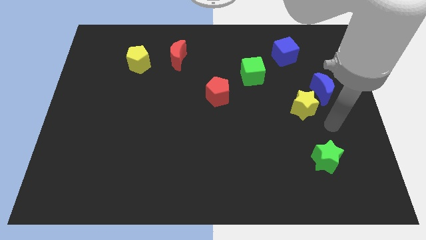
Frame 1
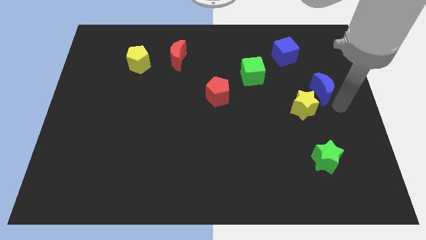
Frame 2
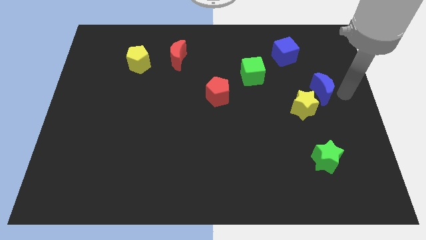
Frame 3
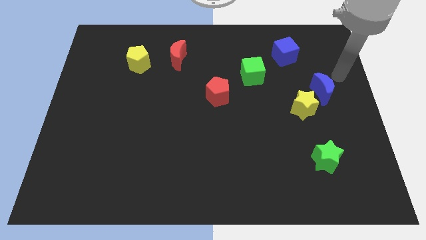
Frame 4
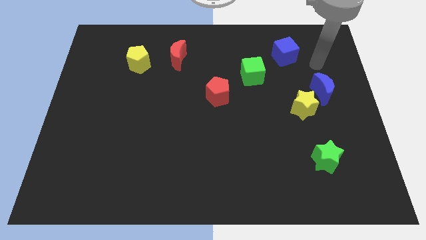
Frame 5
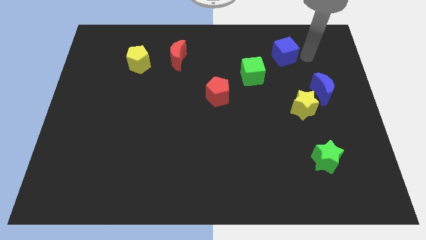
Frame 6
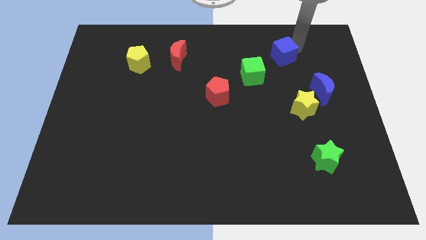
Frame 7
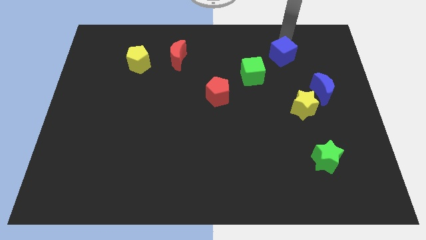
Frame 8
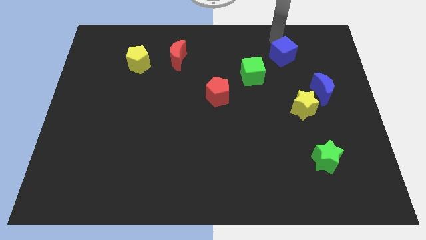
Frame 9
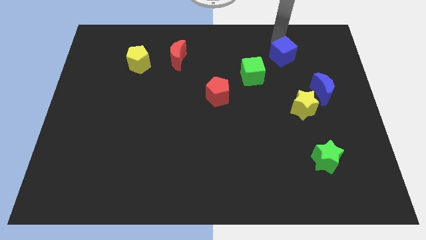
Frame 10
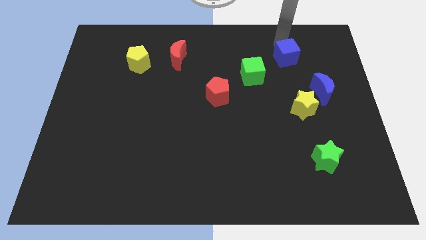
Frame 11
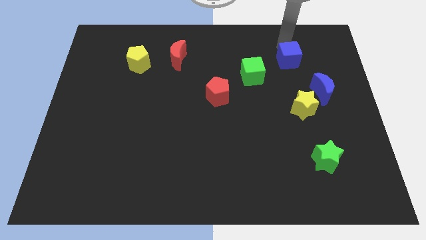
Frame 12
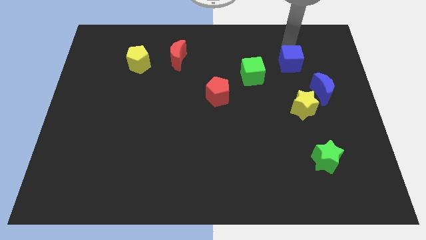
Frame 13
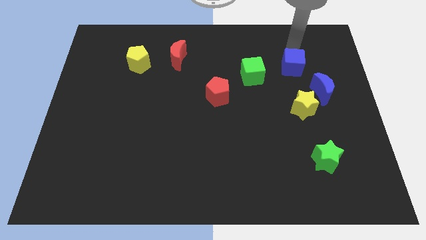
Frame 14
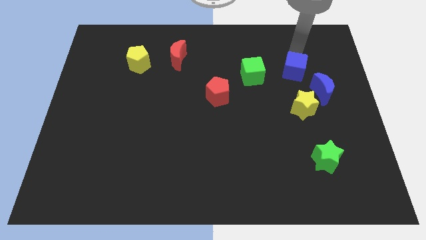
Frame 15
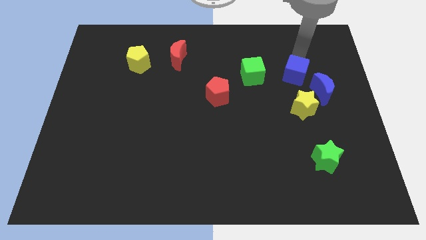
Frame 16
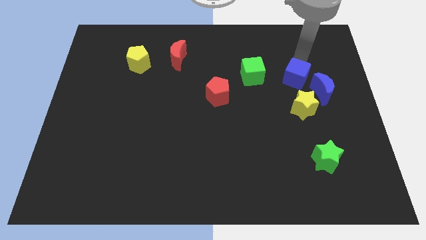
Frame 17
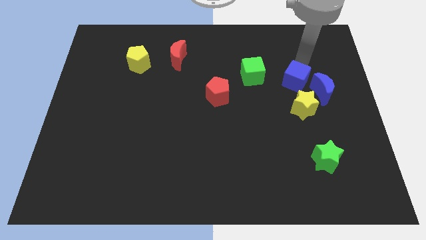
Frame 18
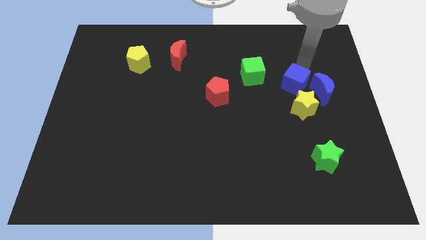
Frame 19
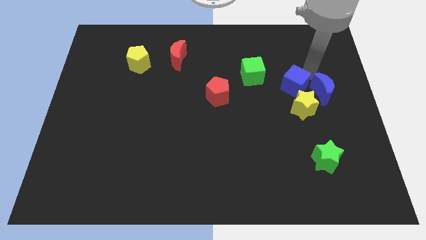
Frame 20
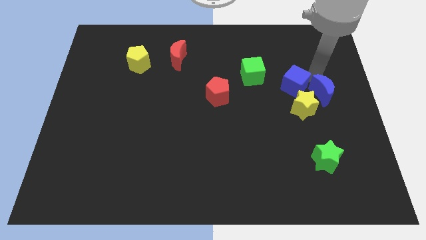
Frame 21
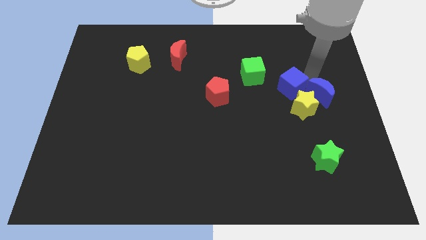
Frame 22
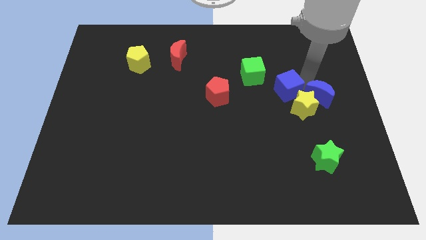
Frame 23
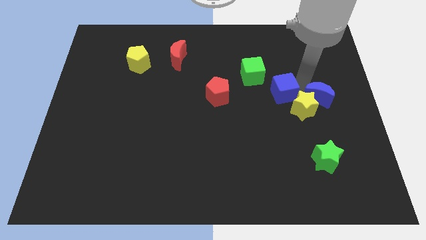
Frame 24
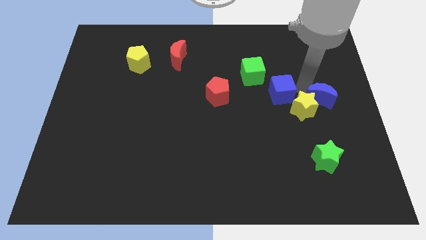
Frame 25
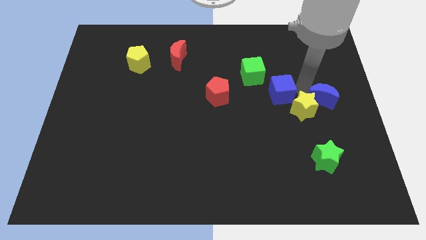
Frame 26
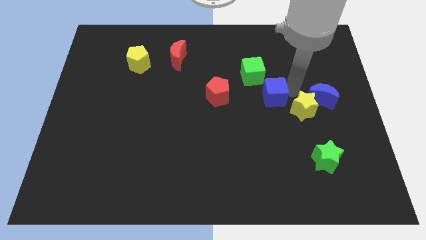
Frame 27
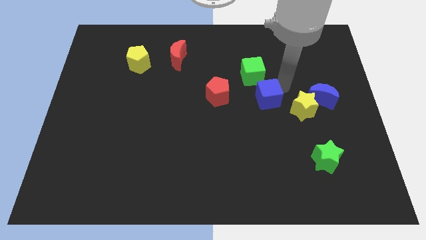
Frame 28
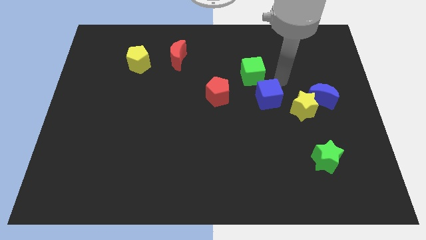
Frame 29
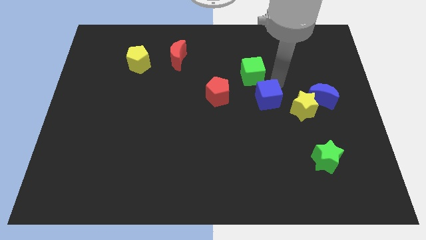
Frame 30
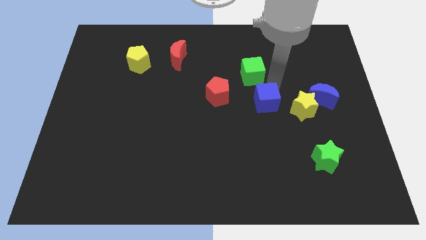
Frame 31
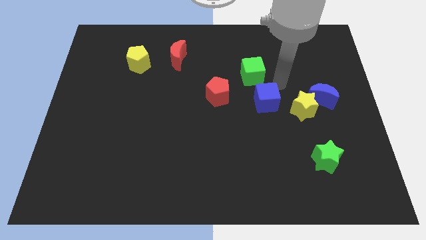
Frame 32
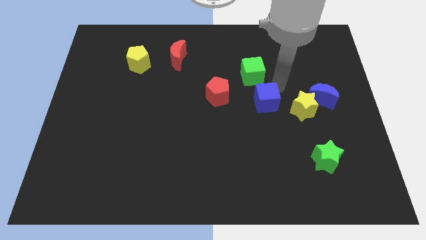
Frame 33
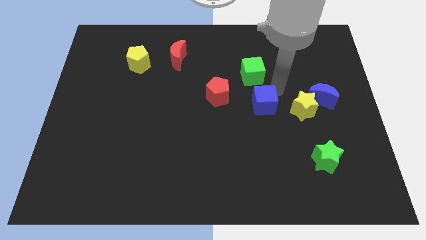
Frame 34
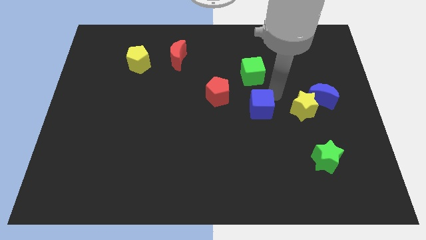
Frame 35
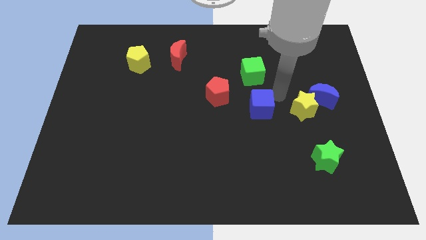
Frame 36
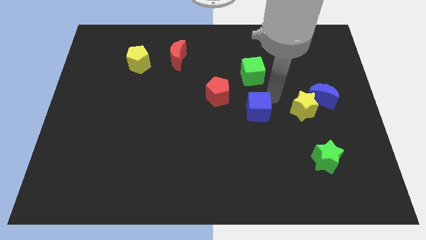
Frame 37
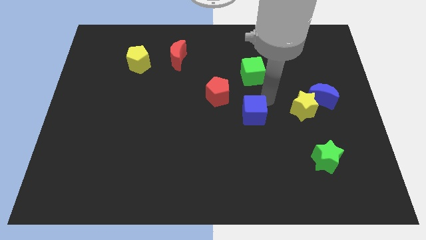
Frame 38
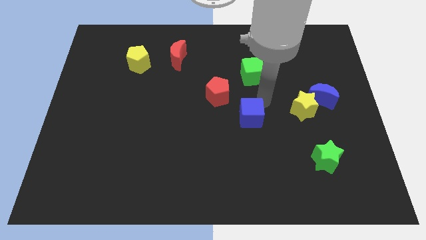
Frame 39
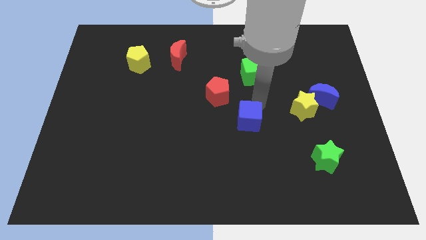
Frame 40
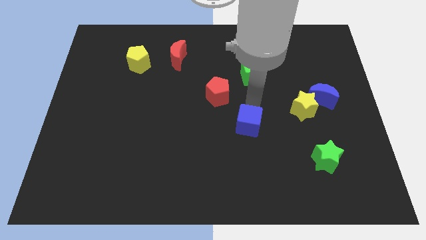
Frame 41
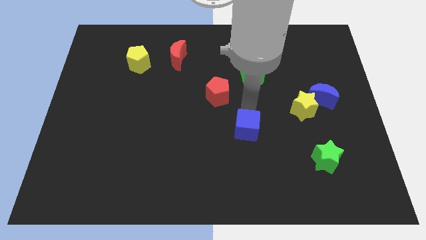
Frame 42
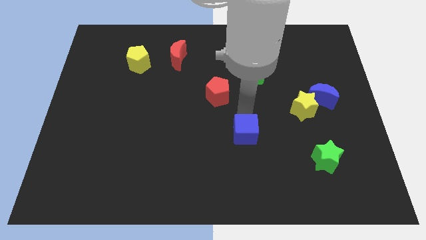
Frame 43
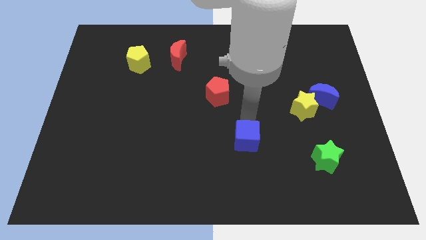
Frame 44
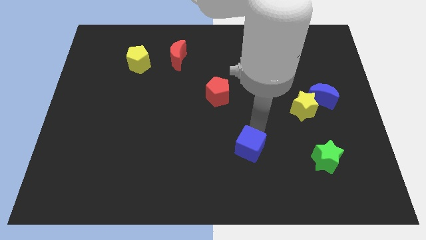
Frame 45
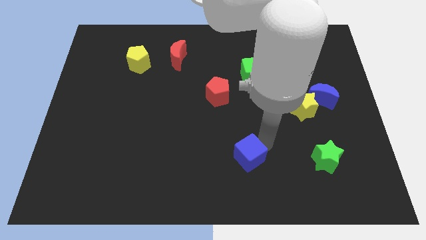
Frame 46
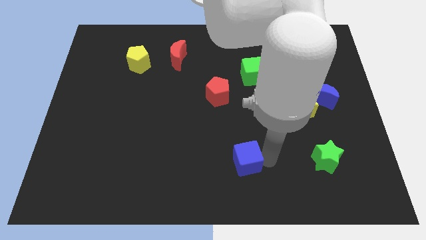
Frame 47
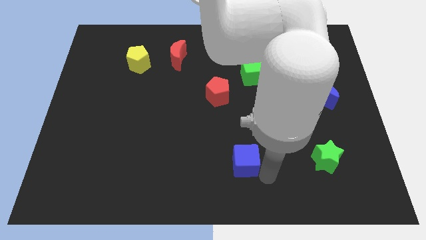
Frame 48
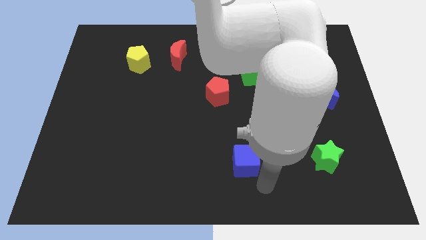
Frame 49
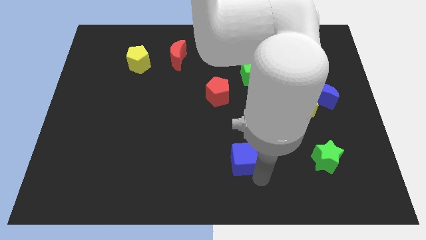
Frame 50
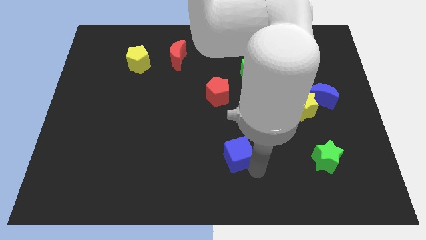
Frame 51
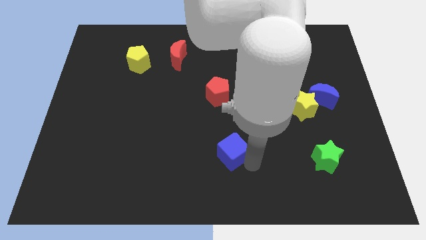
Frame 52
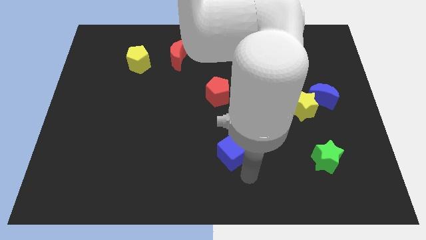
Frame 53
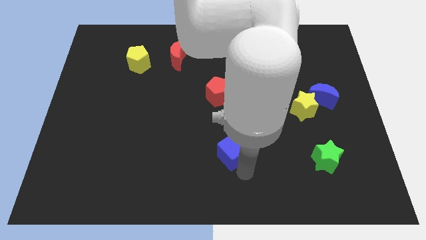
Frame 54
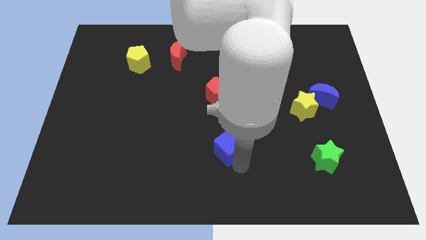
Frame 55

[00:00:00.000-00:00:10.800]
put the blue cube to the bottom of the red pentagon

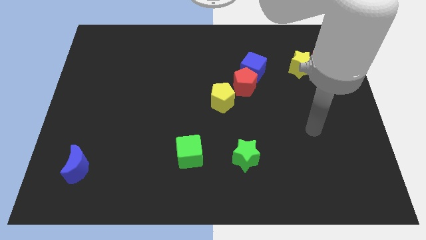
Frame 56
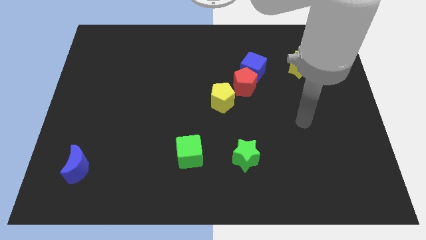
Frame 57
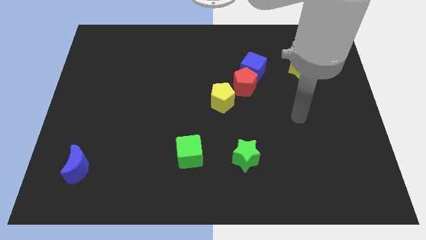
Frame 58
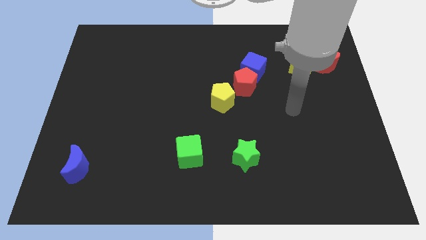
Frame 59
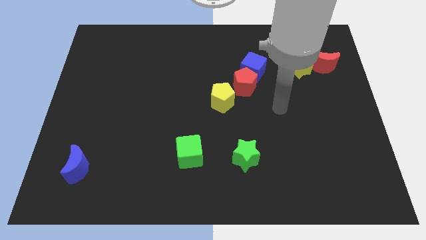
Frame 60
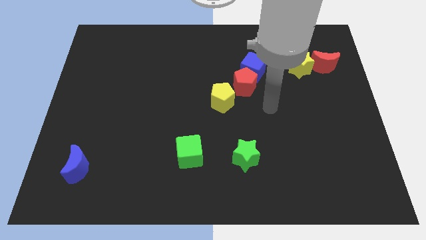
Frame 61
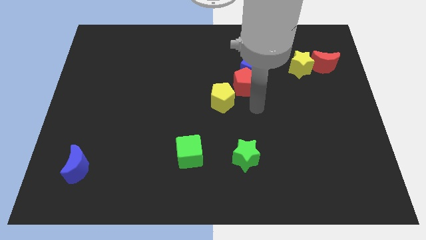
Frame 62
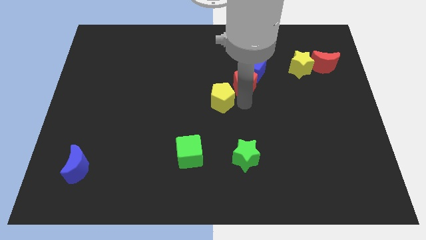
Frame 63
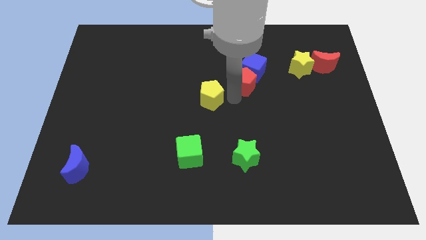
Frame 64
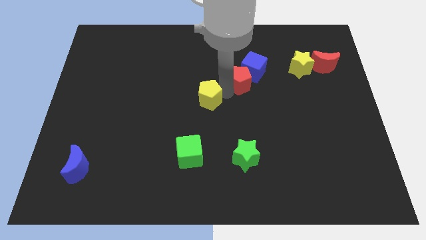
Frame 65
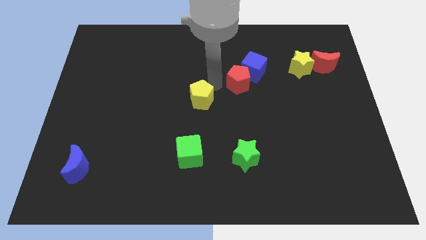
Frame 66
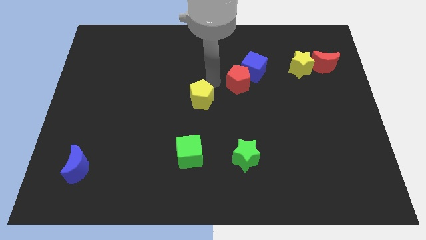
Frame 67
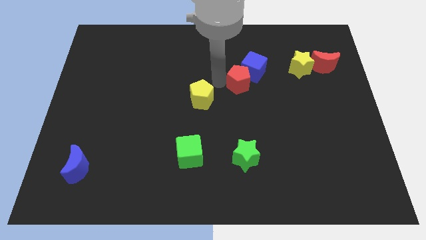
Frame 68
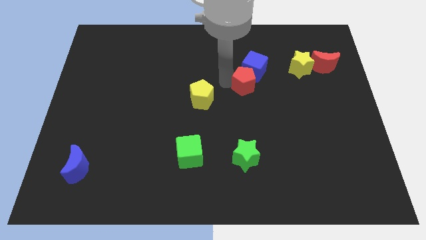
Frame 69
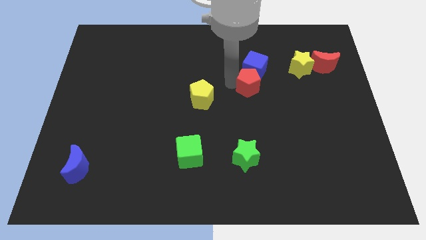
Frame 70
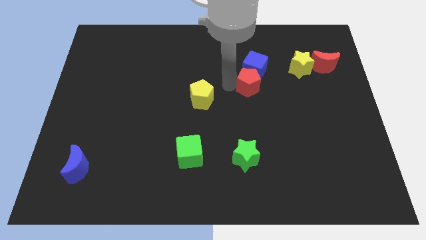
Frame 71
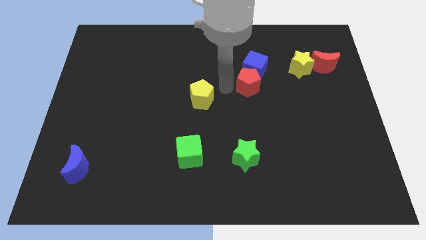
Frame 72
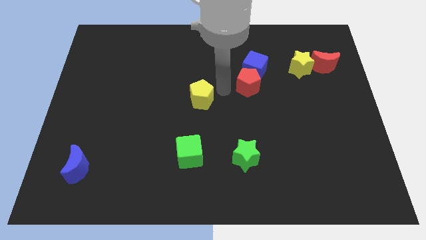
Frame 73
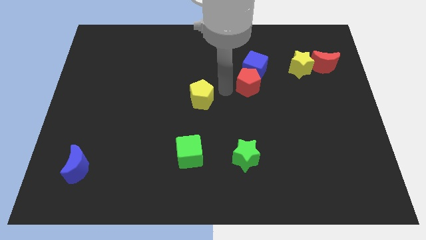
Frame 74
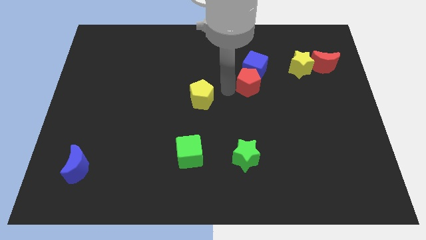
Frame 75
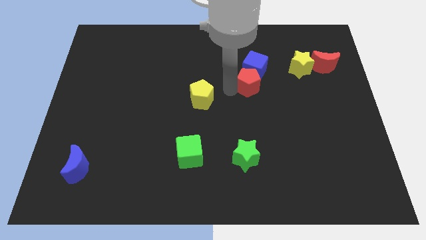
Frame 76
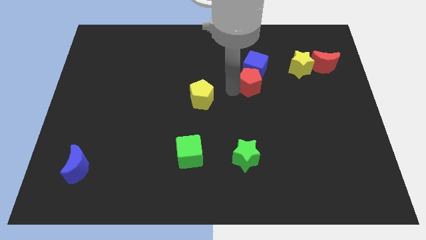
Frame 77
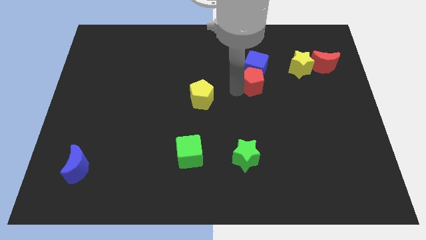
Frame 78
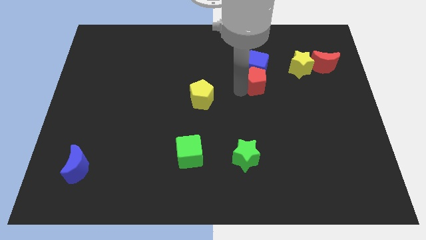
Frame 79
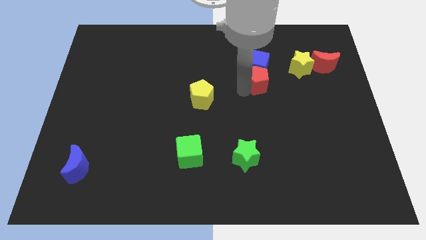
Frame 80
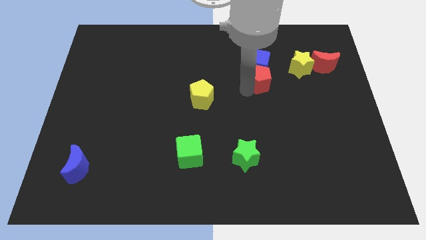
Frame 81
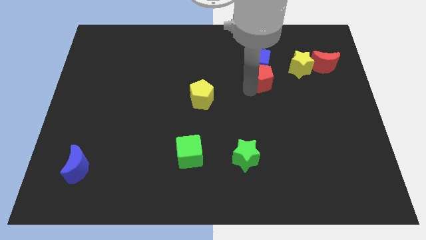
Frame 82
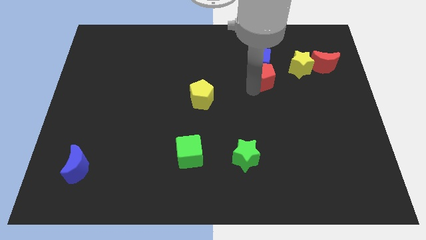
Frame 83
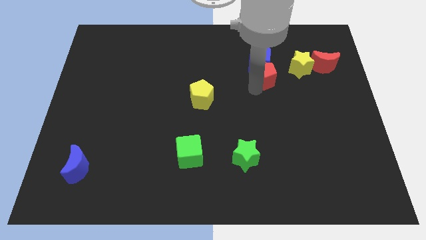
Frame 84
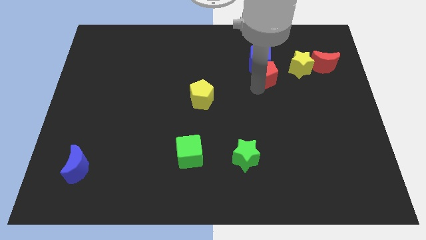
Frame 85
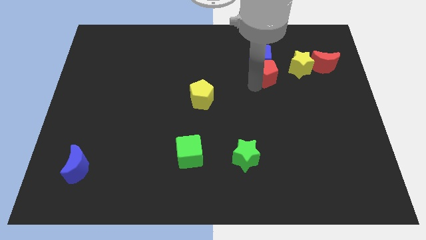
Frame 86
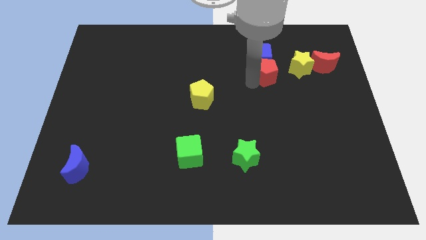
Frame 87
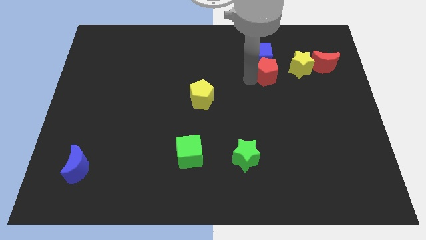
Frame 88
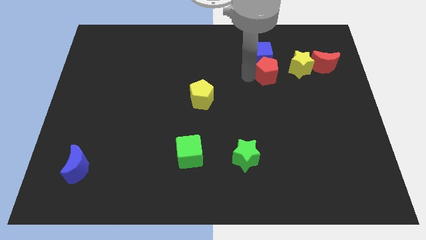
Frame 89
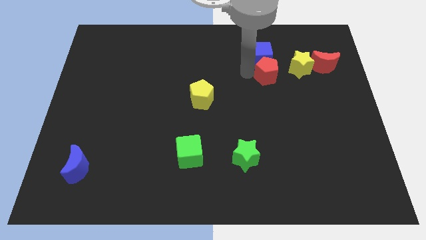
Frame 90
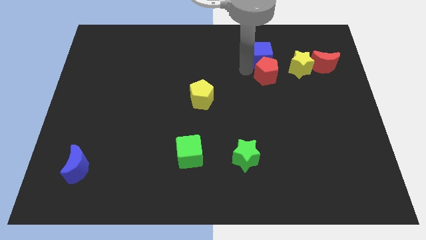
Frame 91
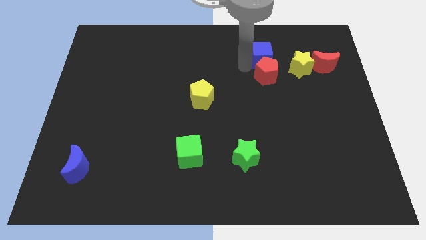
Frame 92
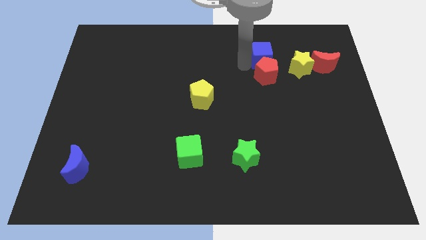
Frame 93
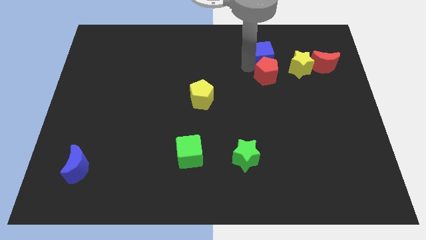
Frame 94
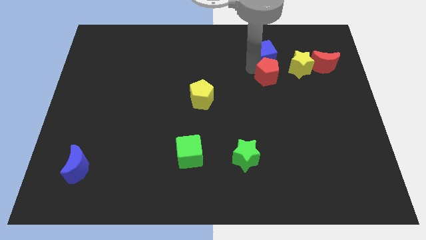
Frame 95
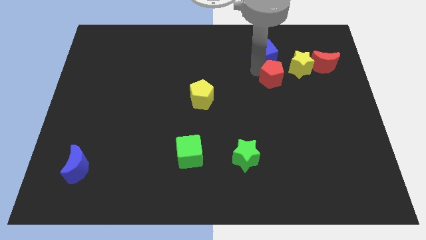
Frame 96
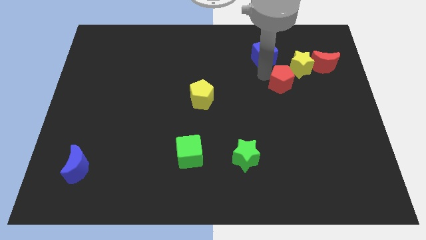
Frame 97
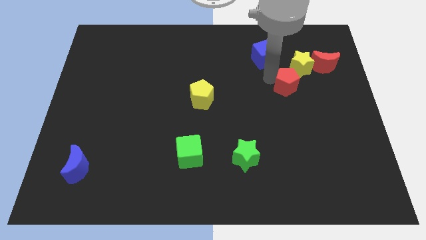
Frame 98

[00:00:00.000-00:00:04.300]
slide the red pentagon to the bottom left side of the red moon
